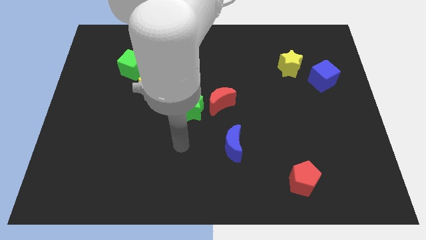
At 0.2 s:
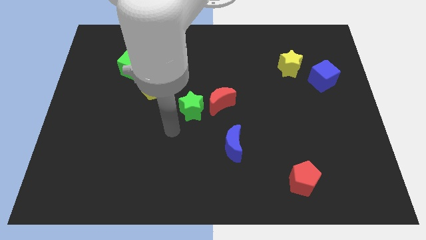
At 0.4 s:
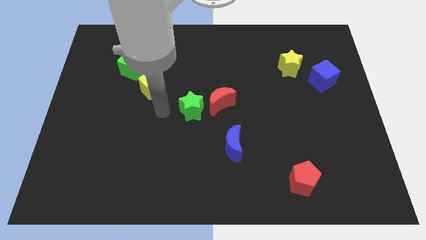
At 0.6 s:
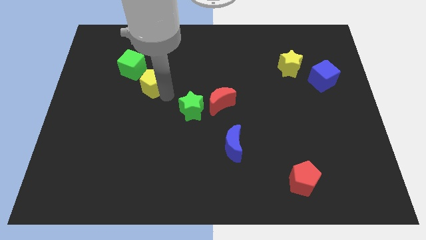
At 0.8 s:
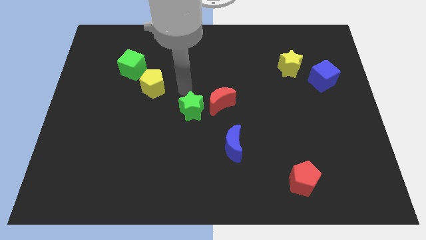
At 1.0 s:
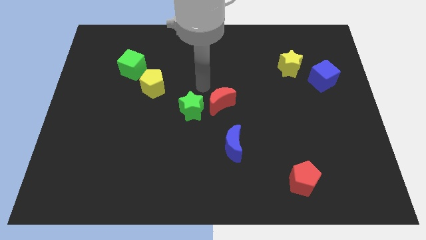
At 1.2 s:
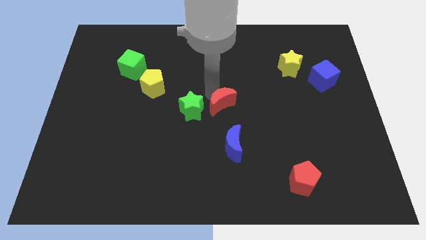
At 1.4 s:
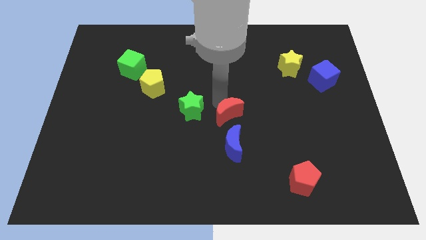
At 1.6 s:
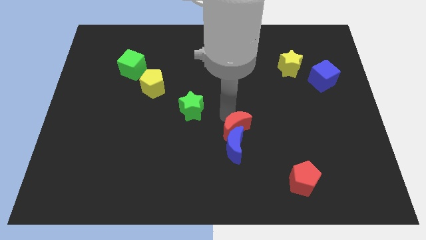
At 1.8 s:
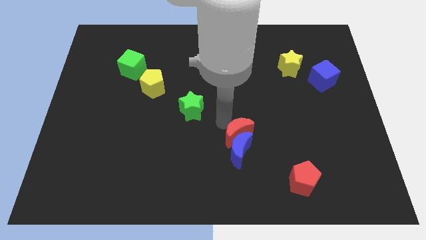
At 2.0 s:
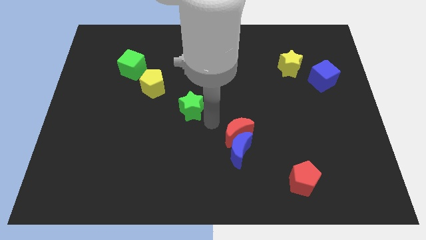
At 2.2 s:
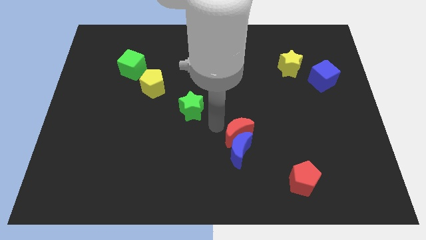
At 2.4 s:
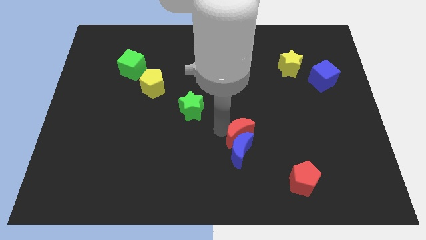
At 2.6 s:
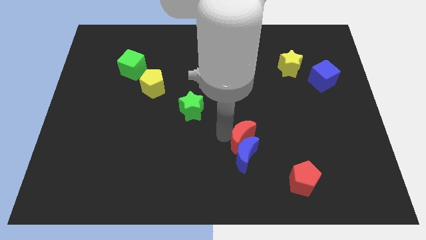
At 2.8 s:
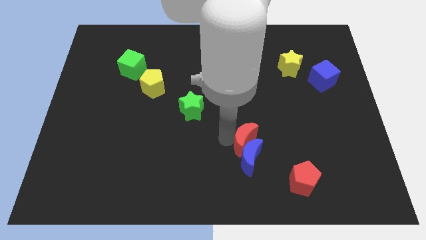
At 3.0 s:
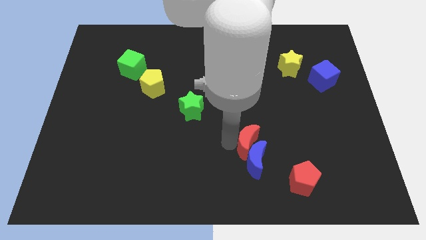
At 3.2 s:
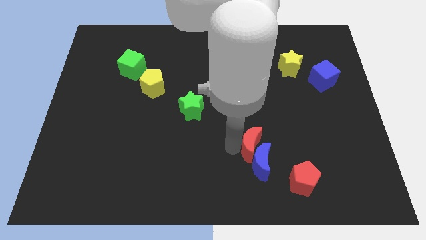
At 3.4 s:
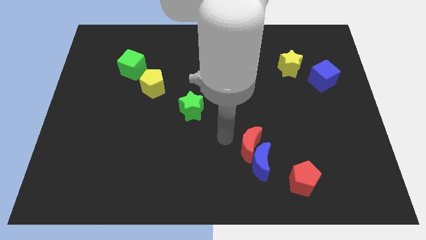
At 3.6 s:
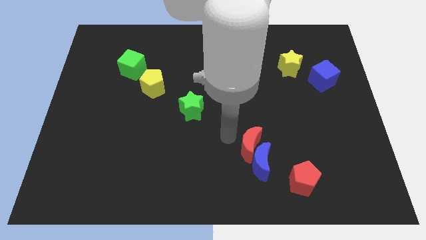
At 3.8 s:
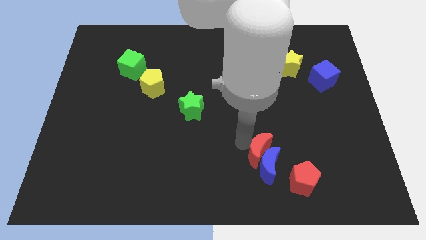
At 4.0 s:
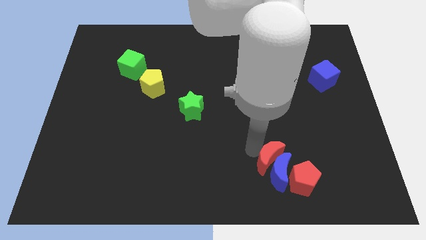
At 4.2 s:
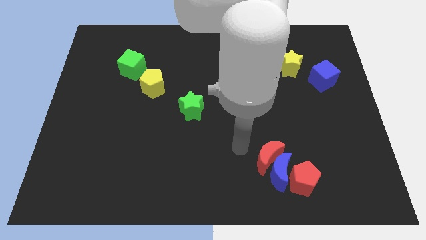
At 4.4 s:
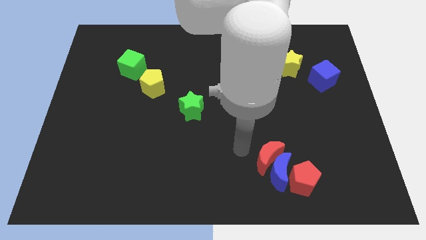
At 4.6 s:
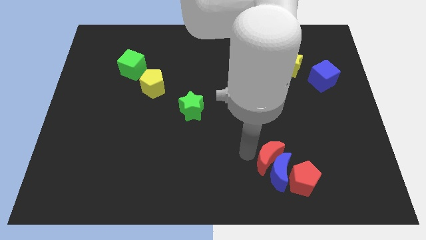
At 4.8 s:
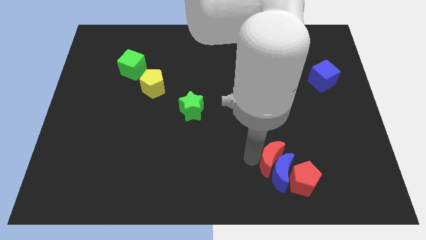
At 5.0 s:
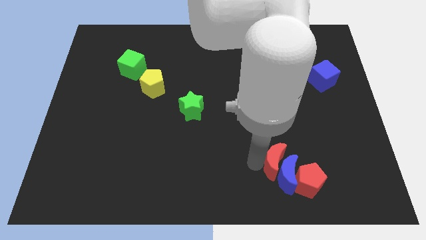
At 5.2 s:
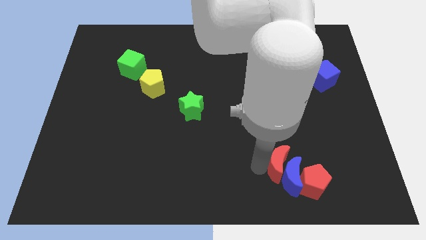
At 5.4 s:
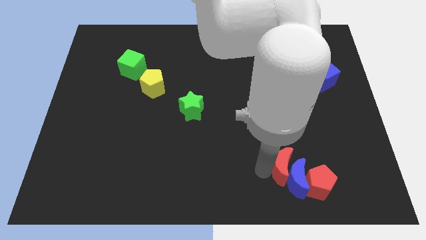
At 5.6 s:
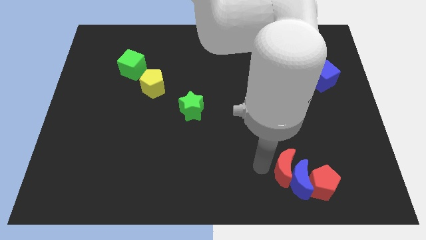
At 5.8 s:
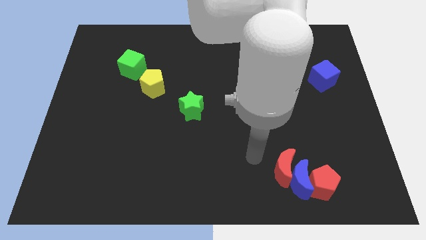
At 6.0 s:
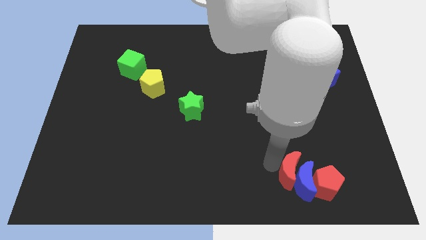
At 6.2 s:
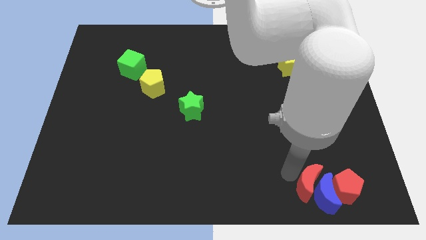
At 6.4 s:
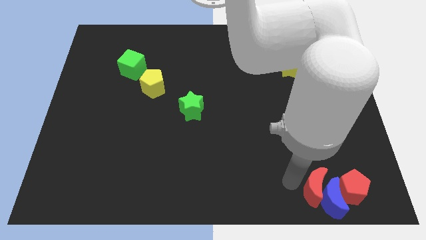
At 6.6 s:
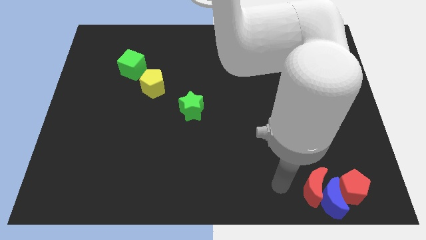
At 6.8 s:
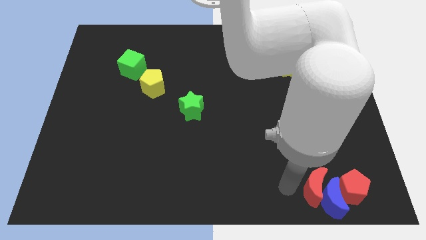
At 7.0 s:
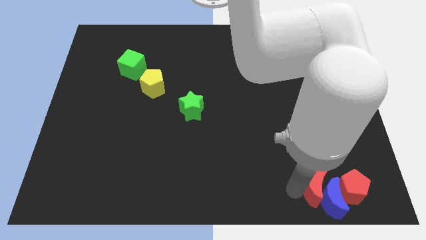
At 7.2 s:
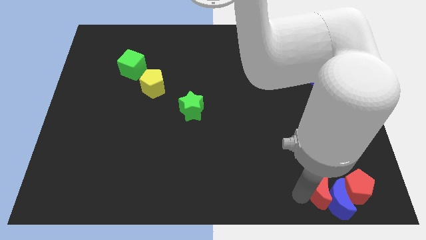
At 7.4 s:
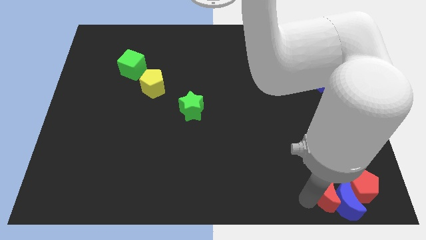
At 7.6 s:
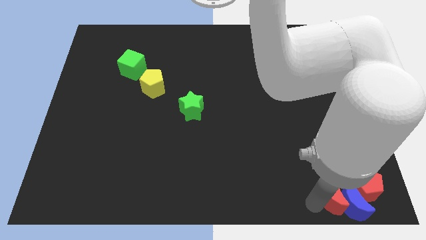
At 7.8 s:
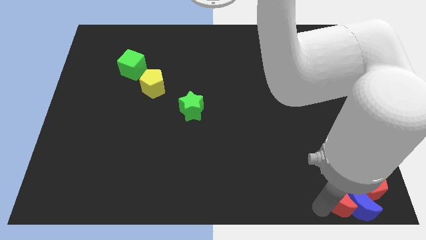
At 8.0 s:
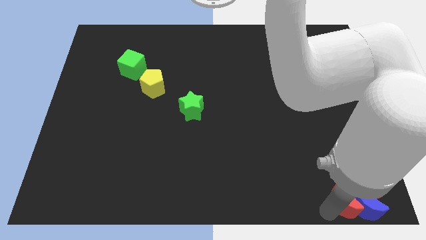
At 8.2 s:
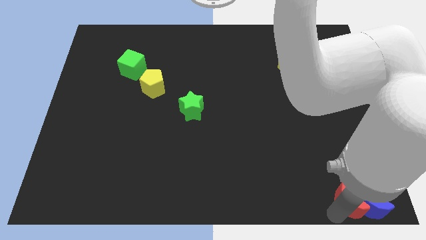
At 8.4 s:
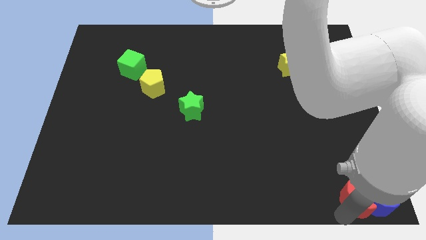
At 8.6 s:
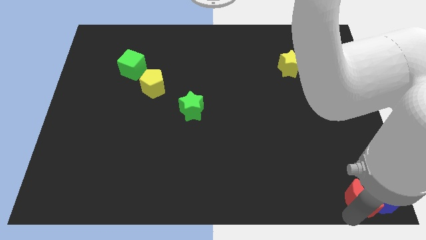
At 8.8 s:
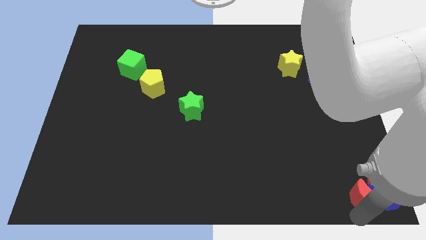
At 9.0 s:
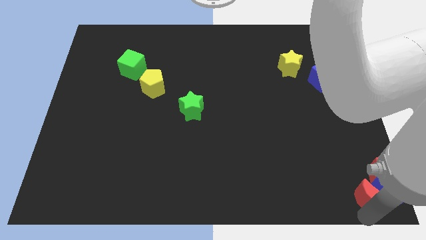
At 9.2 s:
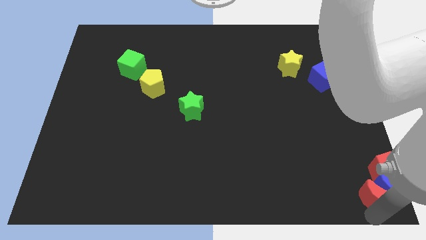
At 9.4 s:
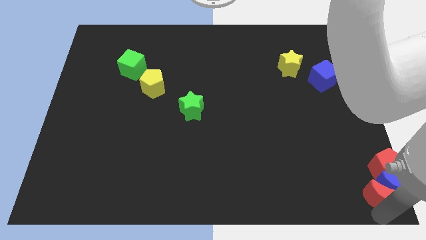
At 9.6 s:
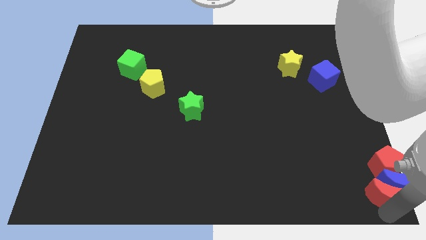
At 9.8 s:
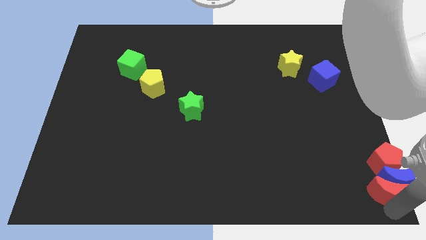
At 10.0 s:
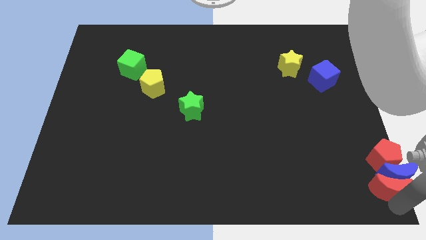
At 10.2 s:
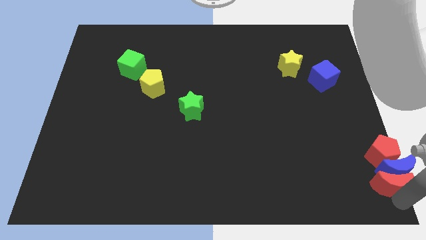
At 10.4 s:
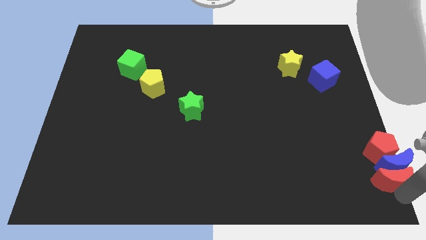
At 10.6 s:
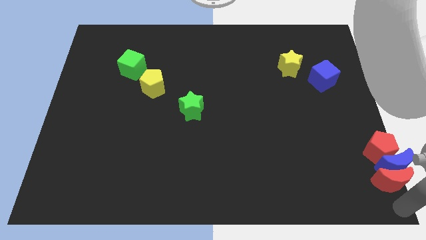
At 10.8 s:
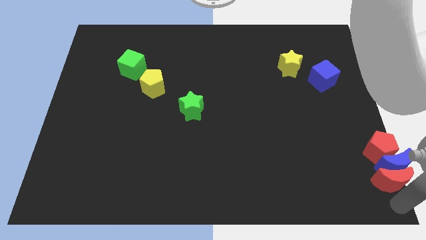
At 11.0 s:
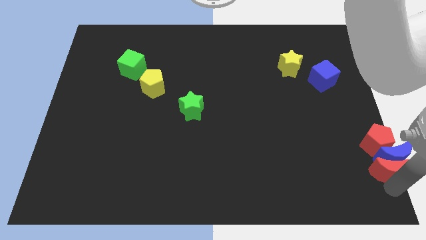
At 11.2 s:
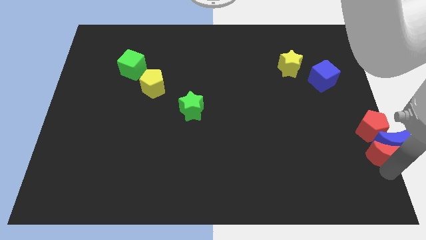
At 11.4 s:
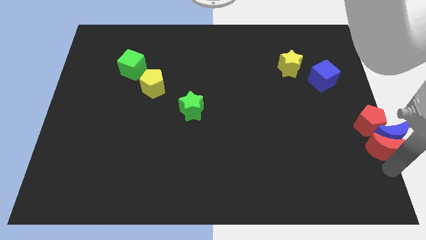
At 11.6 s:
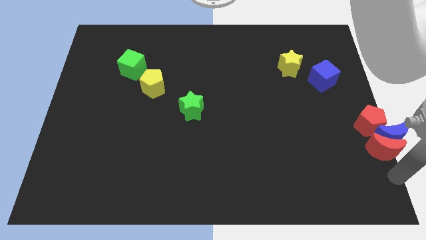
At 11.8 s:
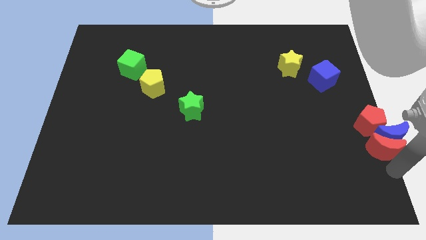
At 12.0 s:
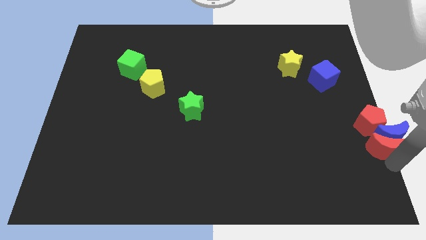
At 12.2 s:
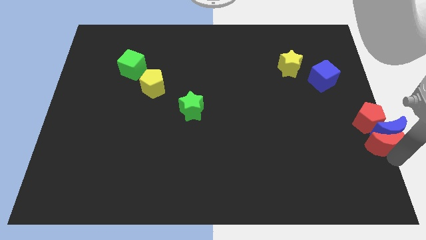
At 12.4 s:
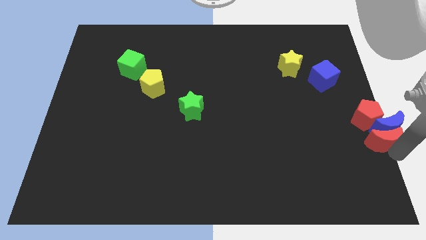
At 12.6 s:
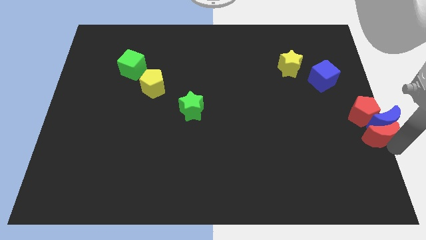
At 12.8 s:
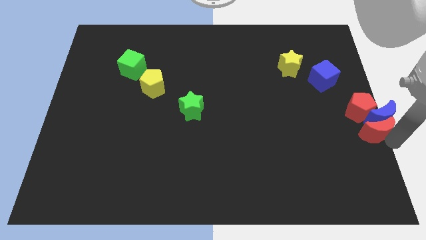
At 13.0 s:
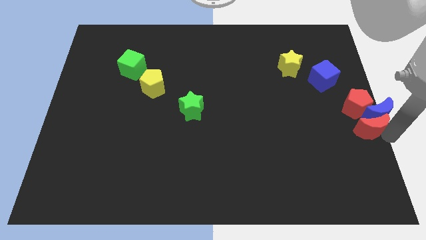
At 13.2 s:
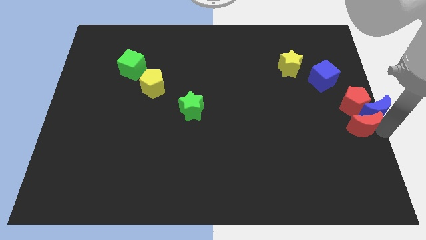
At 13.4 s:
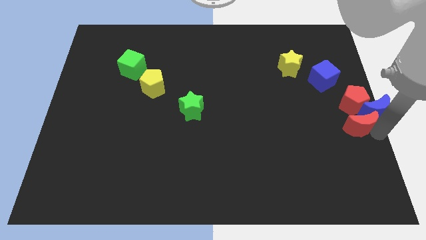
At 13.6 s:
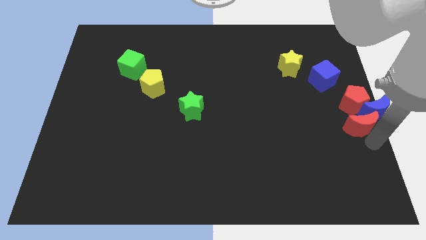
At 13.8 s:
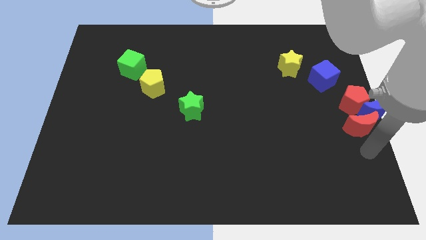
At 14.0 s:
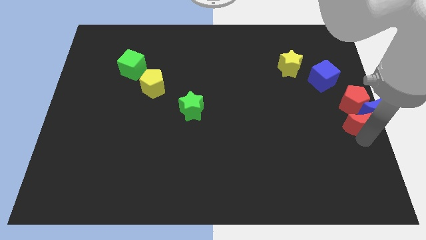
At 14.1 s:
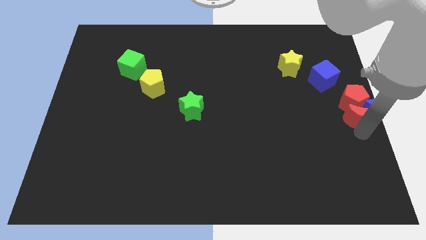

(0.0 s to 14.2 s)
slide the red moon towards the red pentagon

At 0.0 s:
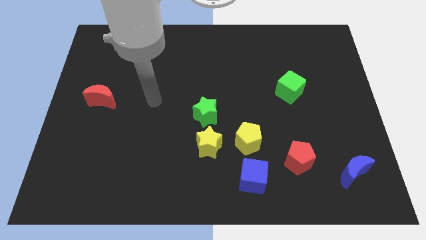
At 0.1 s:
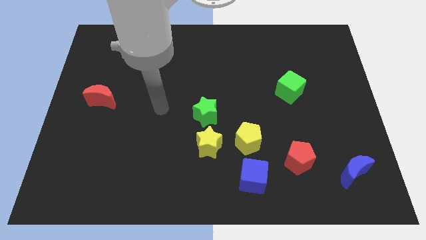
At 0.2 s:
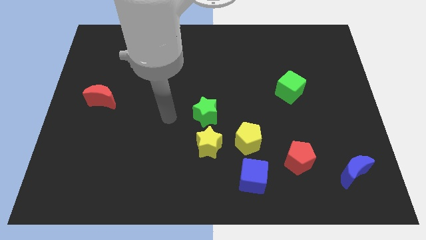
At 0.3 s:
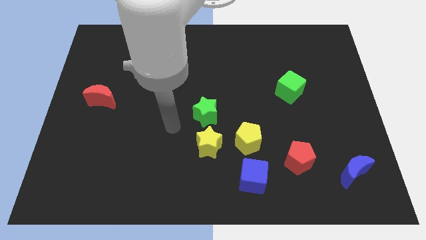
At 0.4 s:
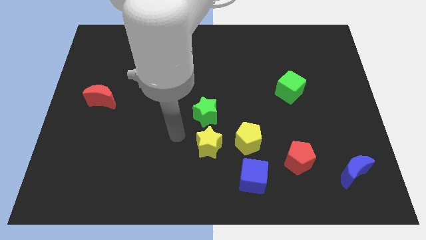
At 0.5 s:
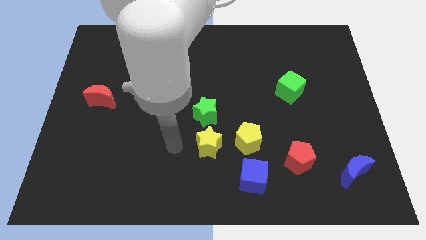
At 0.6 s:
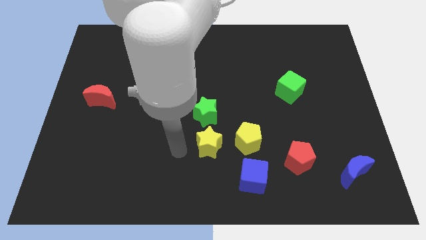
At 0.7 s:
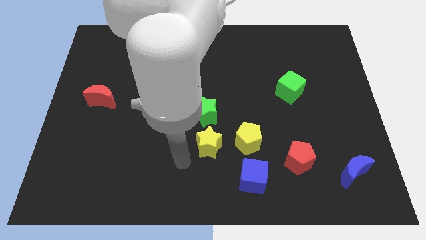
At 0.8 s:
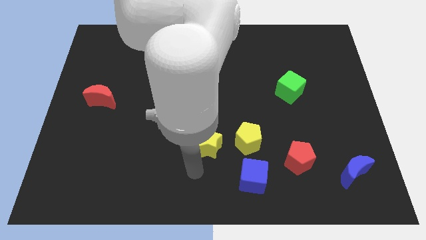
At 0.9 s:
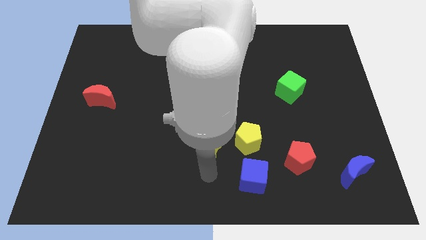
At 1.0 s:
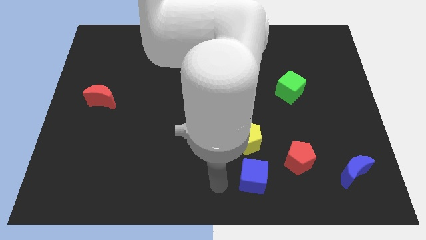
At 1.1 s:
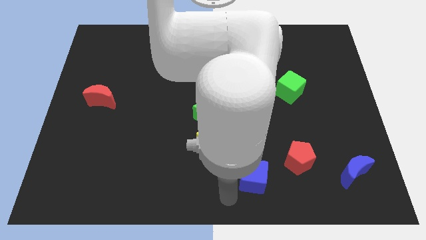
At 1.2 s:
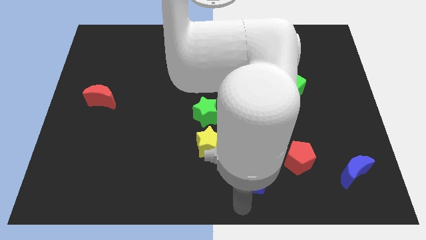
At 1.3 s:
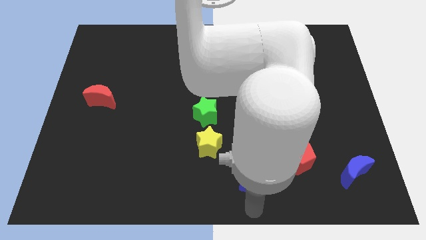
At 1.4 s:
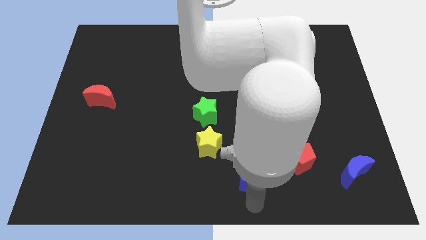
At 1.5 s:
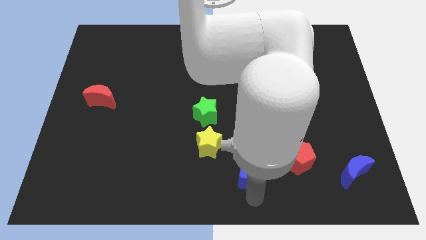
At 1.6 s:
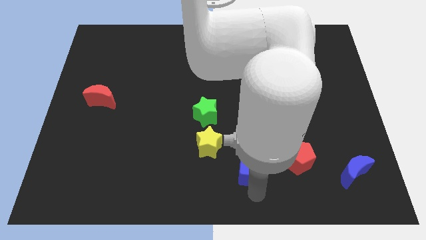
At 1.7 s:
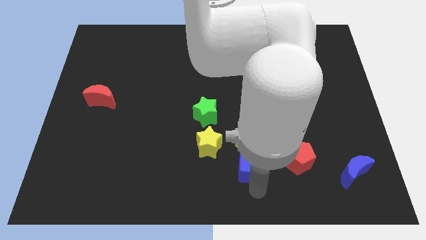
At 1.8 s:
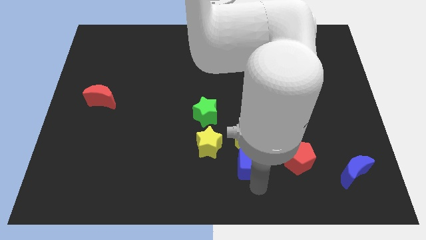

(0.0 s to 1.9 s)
put the blue cube to the yellow pentagon
